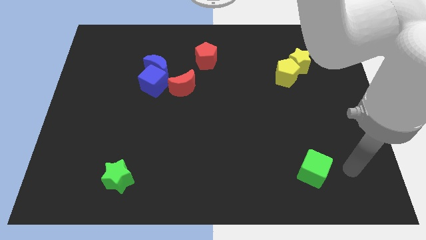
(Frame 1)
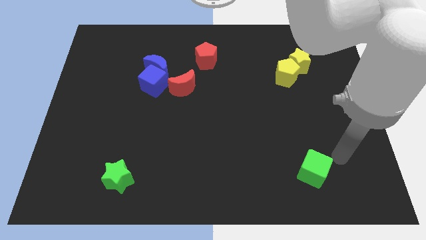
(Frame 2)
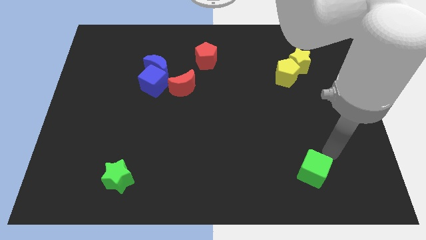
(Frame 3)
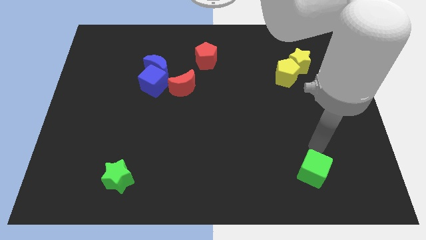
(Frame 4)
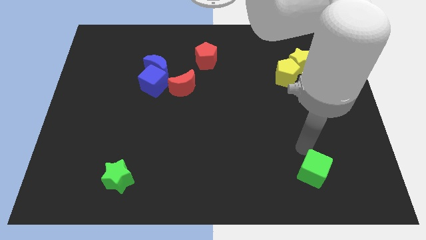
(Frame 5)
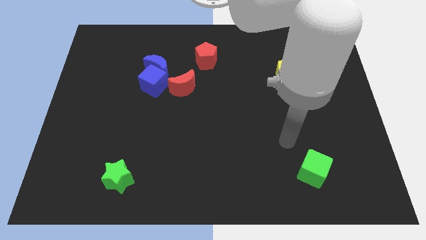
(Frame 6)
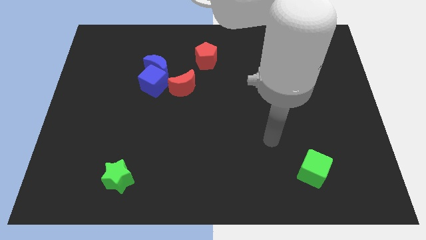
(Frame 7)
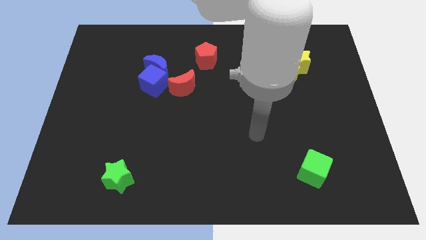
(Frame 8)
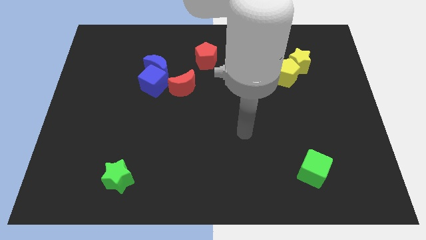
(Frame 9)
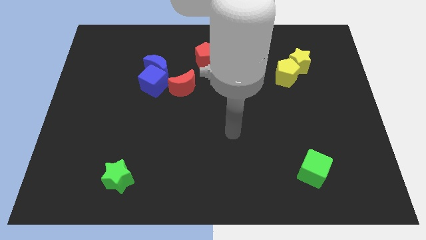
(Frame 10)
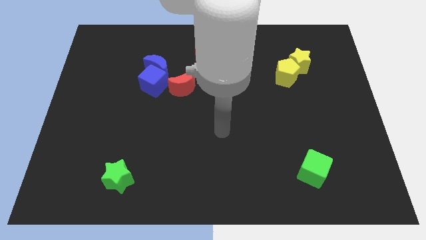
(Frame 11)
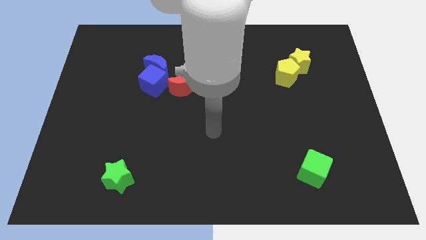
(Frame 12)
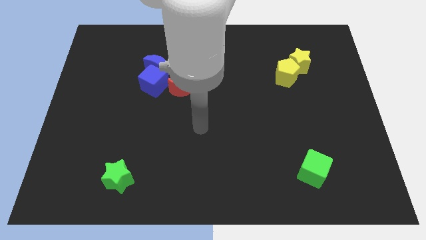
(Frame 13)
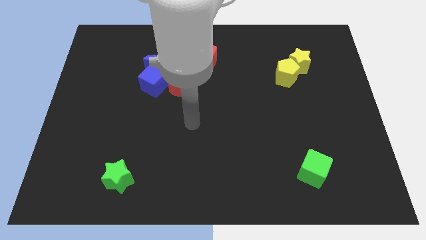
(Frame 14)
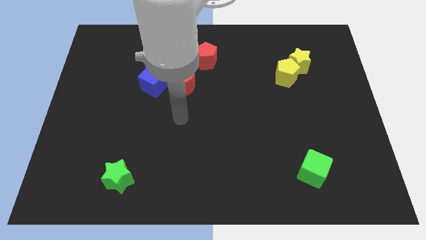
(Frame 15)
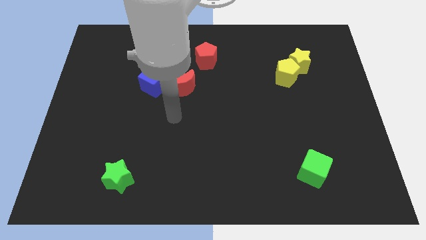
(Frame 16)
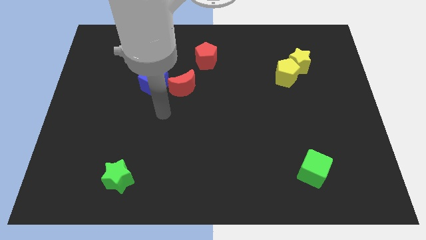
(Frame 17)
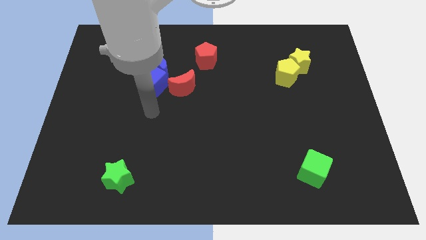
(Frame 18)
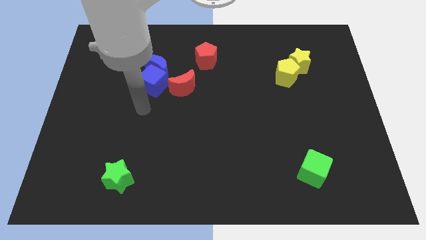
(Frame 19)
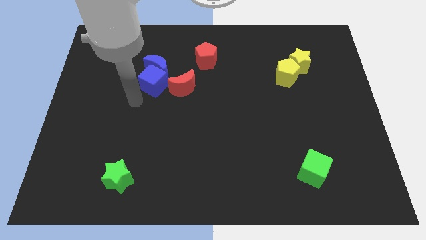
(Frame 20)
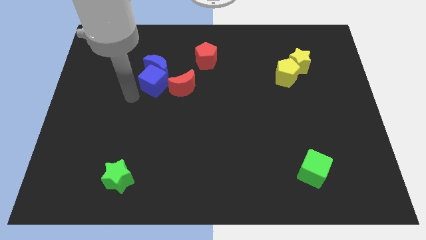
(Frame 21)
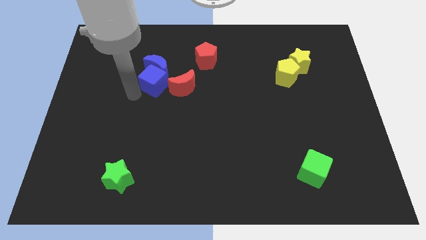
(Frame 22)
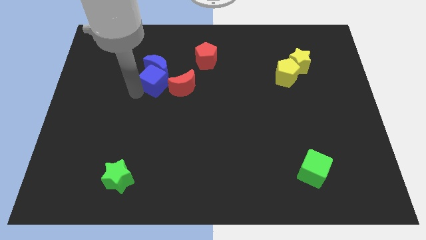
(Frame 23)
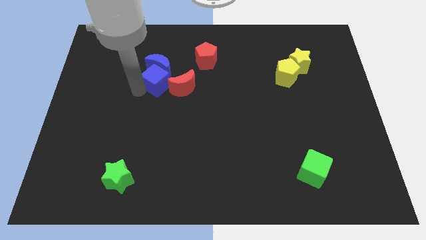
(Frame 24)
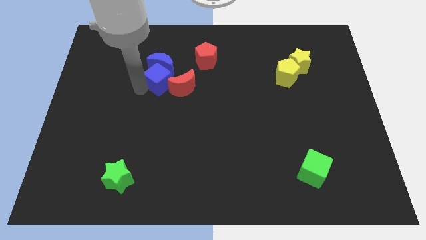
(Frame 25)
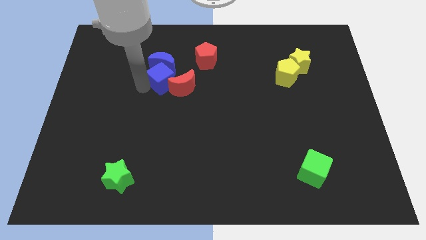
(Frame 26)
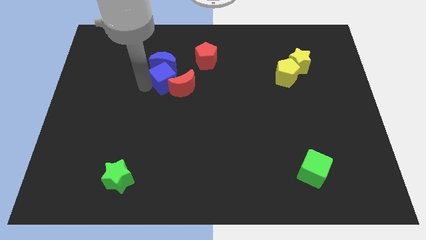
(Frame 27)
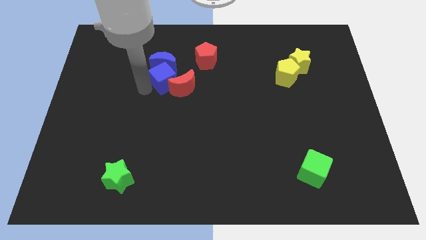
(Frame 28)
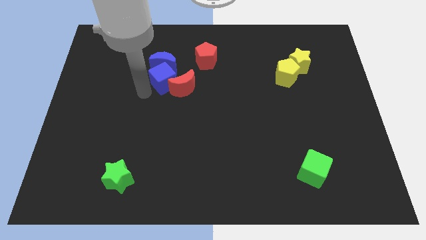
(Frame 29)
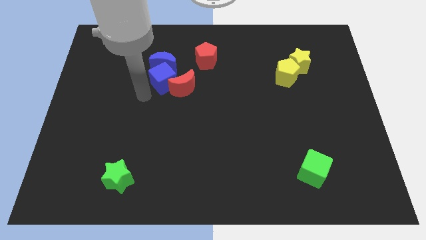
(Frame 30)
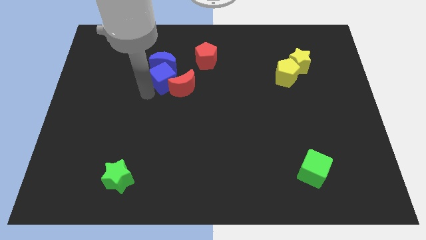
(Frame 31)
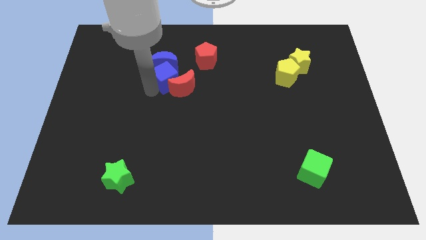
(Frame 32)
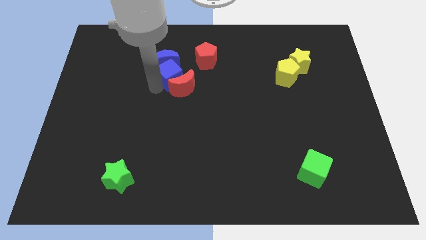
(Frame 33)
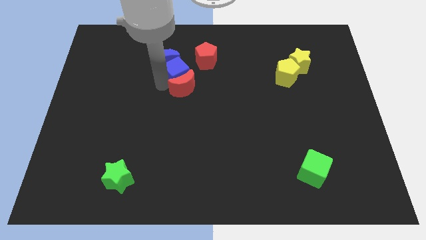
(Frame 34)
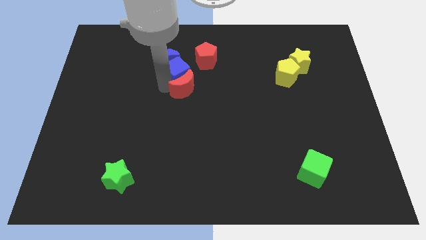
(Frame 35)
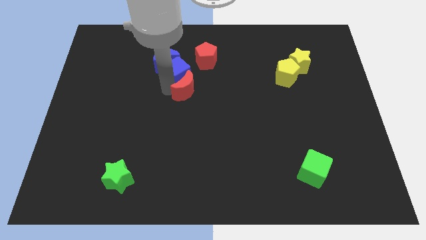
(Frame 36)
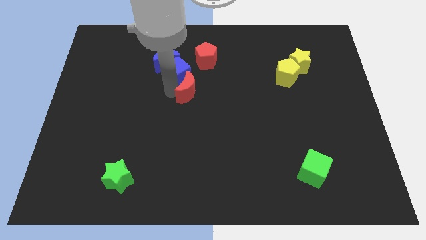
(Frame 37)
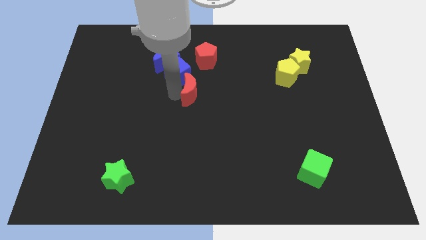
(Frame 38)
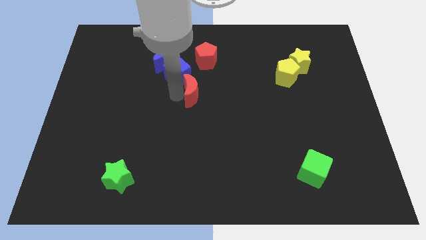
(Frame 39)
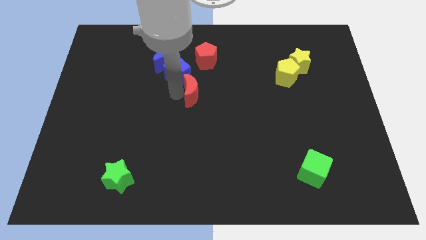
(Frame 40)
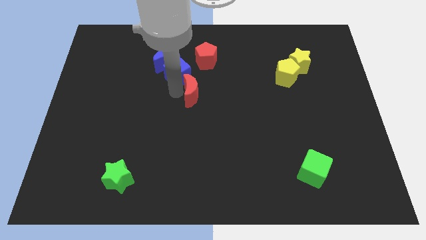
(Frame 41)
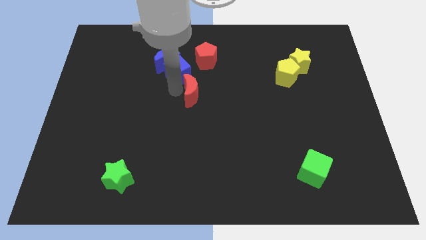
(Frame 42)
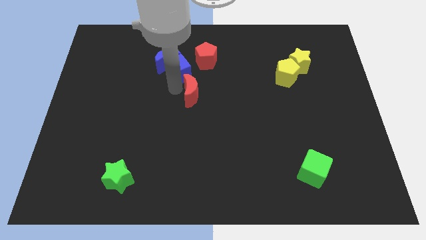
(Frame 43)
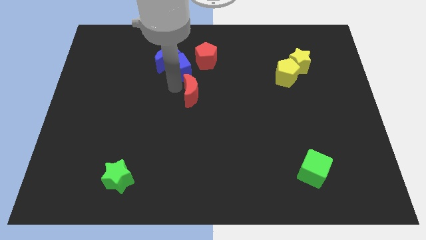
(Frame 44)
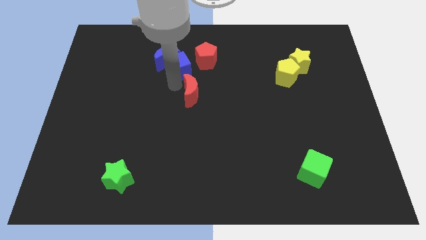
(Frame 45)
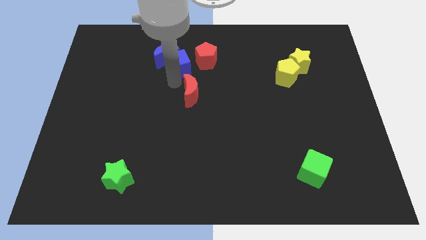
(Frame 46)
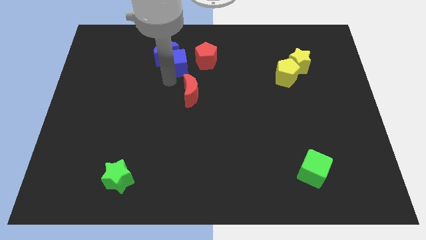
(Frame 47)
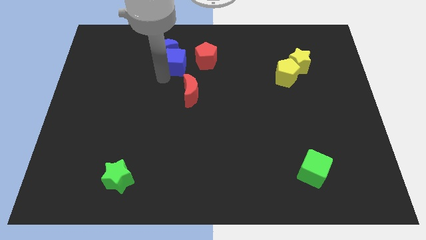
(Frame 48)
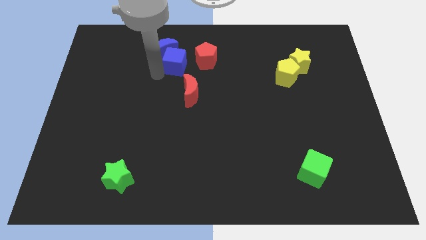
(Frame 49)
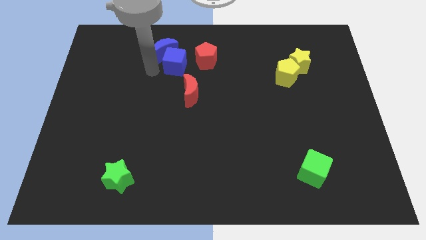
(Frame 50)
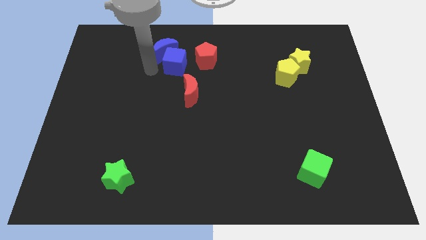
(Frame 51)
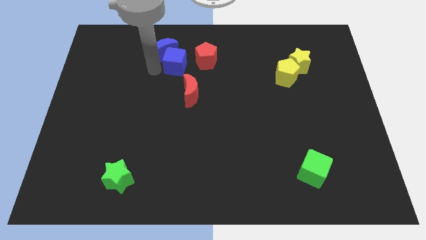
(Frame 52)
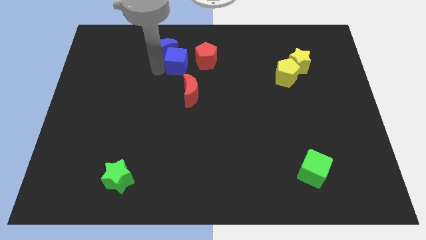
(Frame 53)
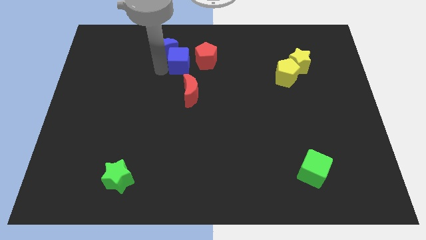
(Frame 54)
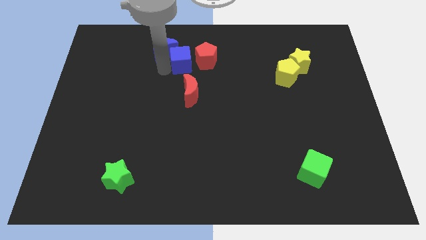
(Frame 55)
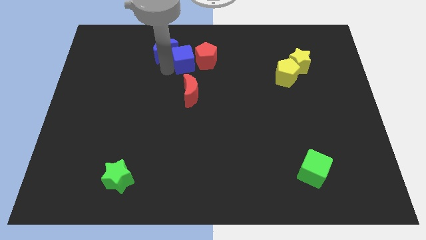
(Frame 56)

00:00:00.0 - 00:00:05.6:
put the blue cube towards the red pentagon

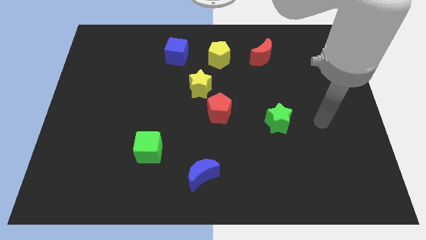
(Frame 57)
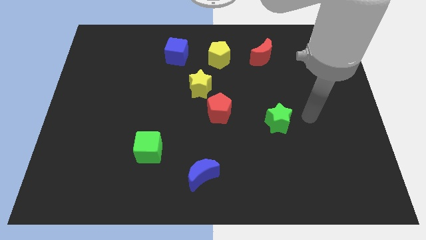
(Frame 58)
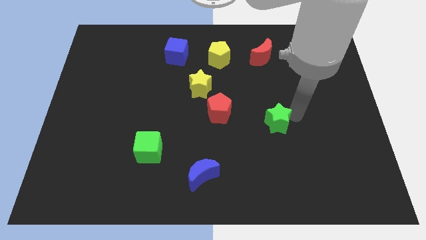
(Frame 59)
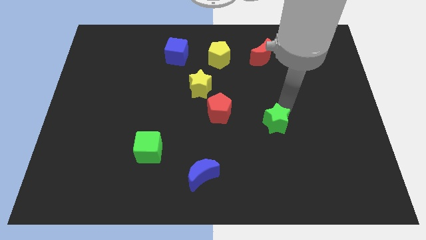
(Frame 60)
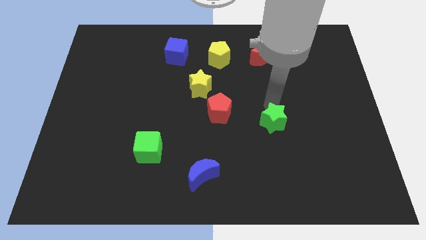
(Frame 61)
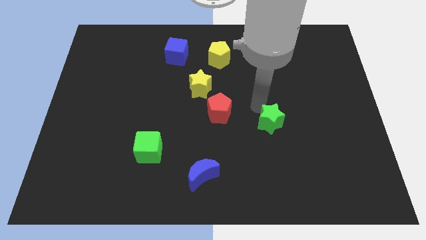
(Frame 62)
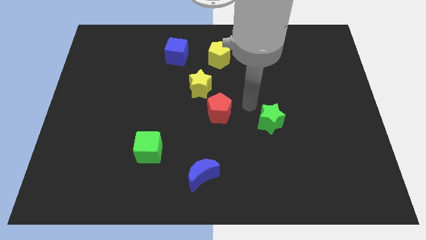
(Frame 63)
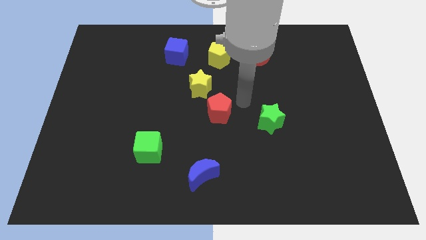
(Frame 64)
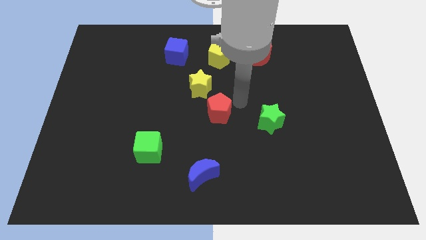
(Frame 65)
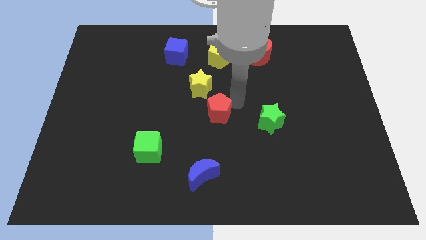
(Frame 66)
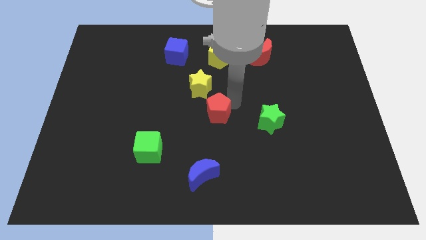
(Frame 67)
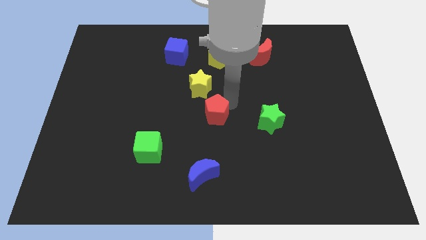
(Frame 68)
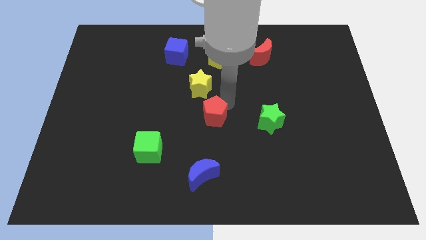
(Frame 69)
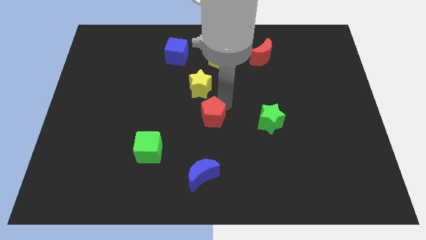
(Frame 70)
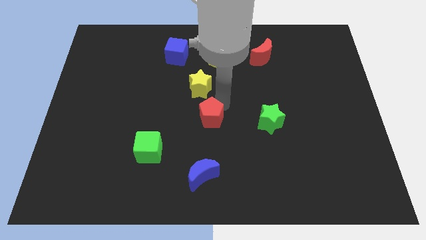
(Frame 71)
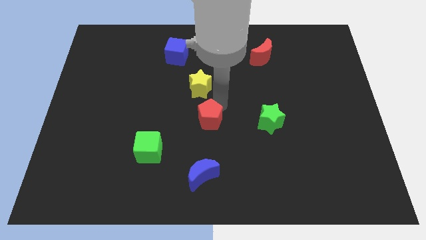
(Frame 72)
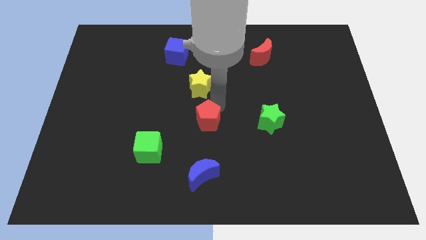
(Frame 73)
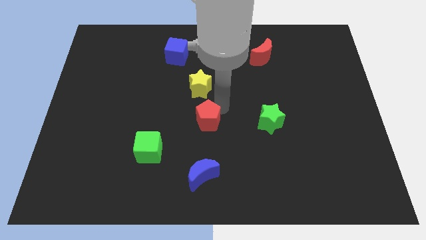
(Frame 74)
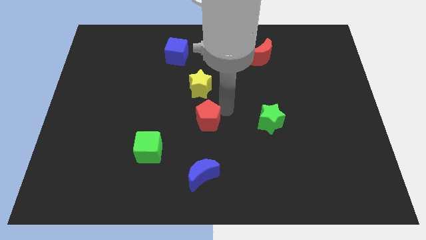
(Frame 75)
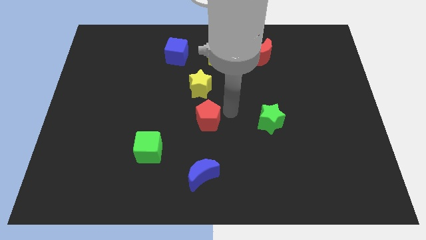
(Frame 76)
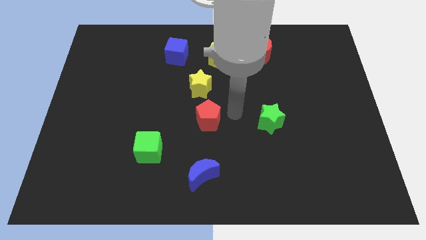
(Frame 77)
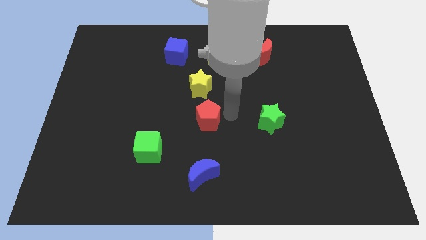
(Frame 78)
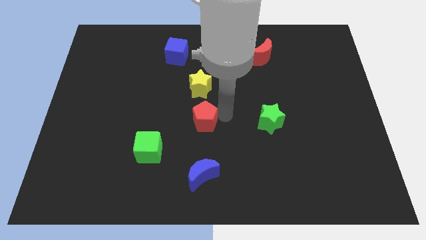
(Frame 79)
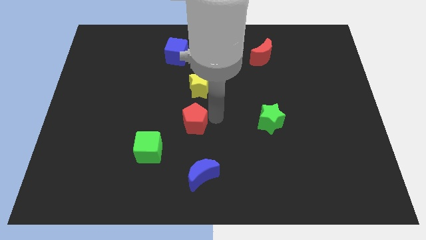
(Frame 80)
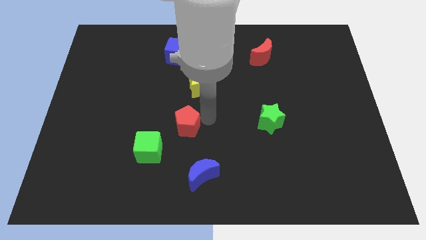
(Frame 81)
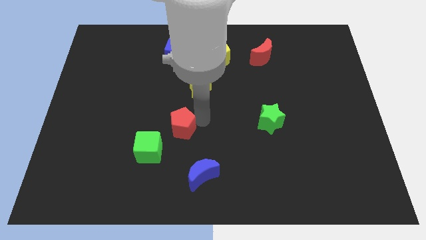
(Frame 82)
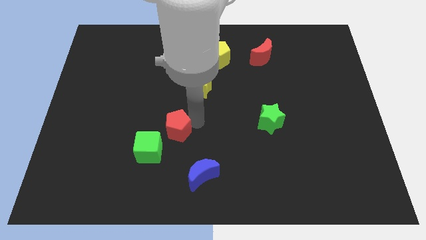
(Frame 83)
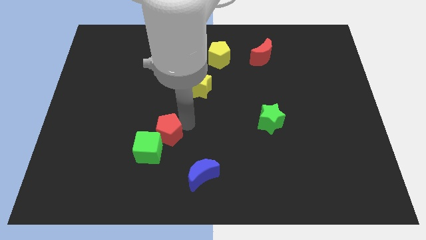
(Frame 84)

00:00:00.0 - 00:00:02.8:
push the red pentagon next to the green cube
